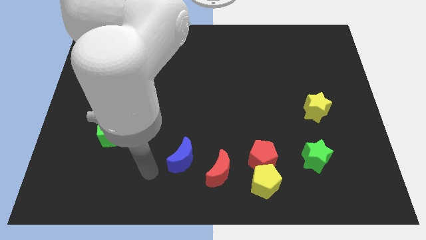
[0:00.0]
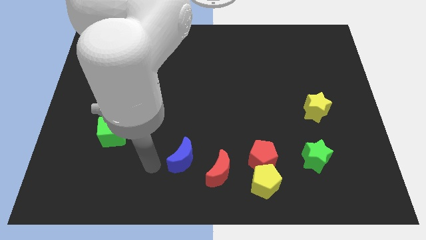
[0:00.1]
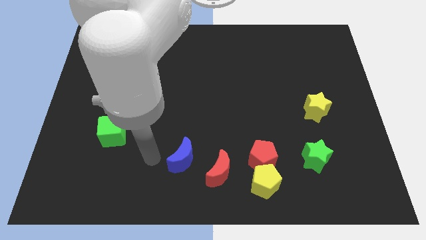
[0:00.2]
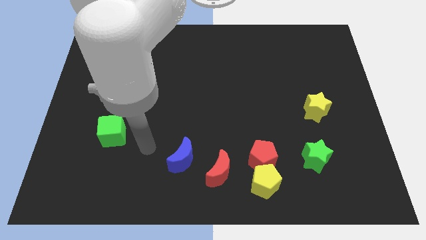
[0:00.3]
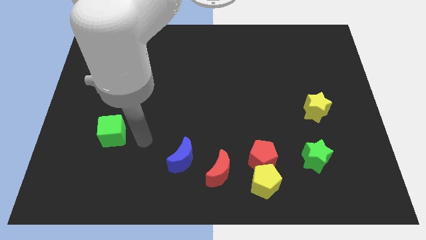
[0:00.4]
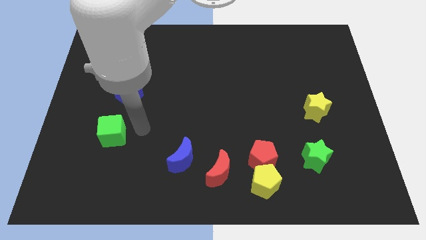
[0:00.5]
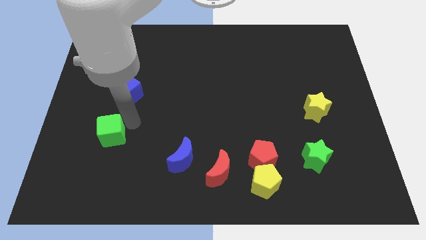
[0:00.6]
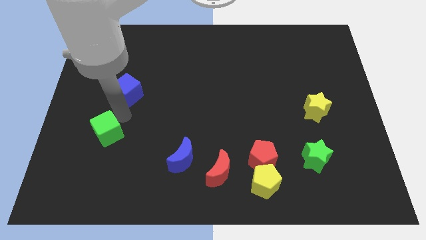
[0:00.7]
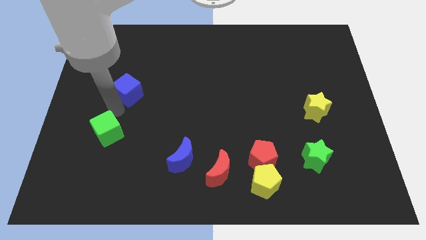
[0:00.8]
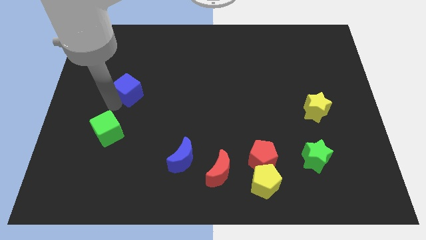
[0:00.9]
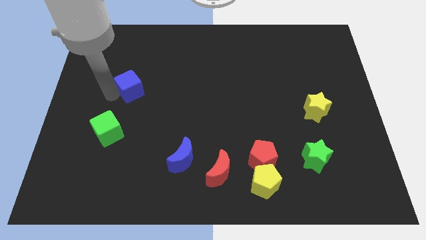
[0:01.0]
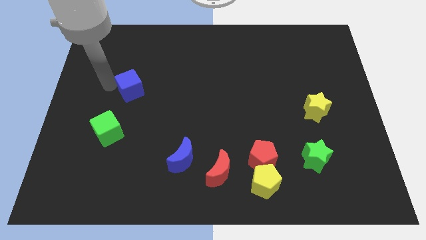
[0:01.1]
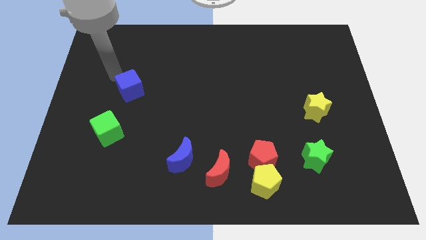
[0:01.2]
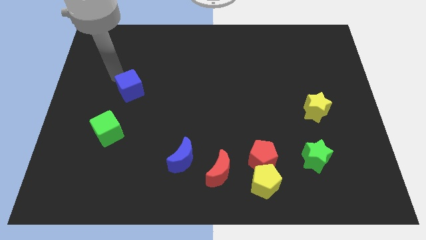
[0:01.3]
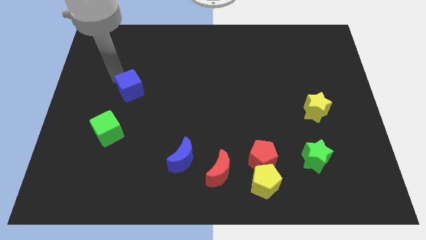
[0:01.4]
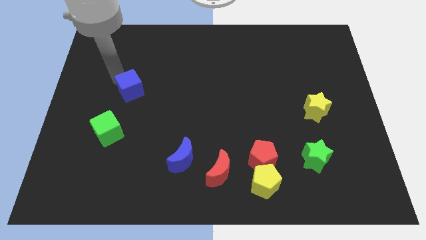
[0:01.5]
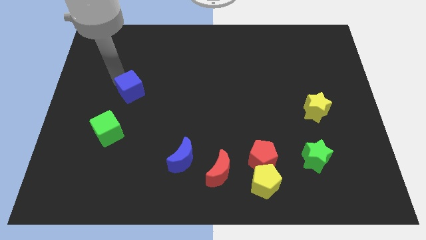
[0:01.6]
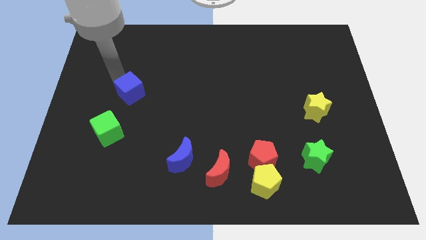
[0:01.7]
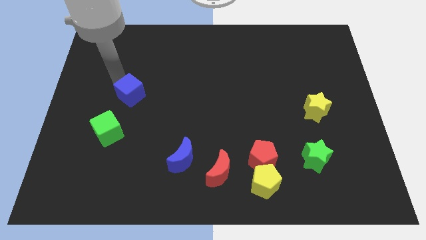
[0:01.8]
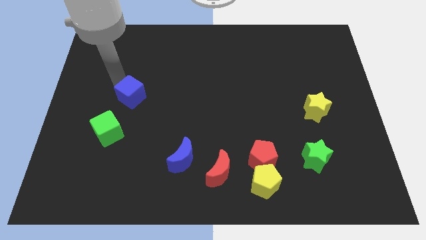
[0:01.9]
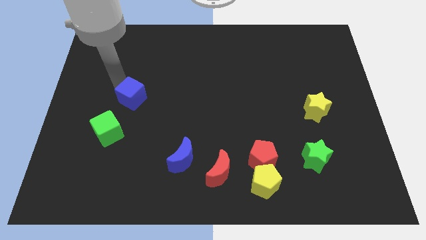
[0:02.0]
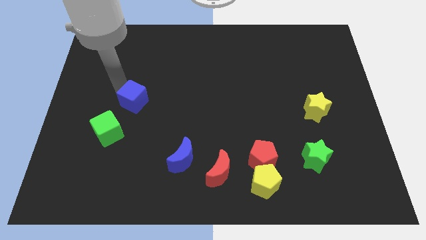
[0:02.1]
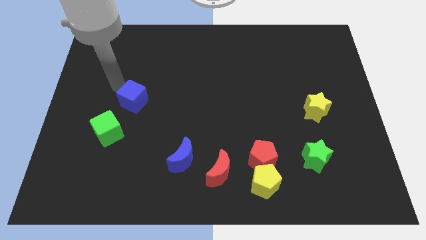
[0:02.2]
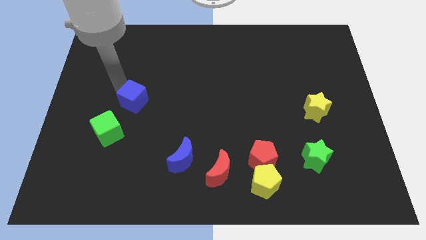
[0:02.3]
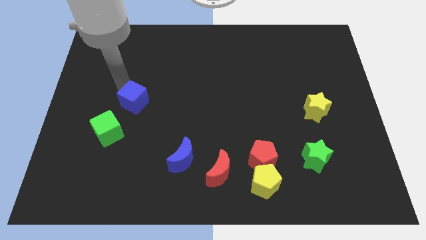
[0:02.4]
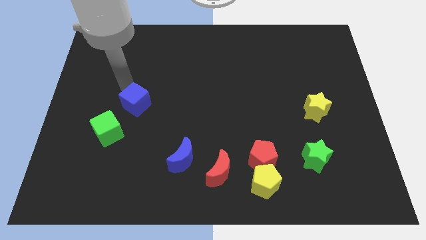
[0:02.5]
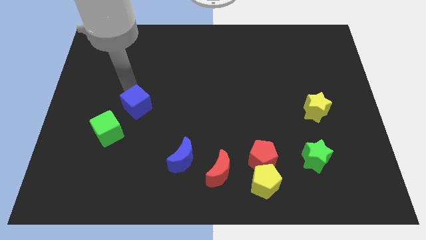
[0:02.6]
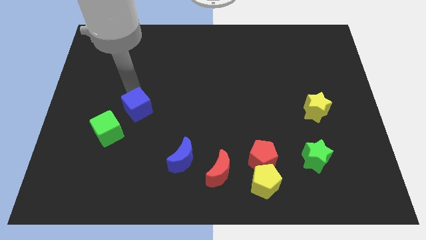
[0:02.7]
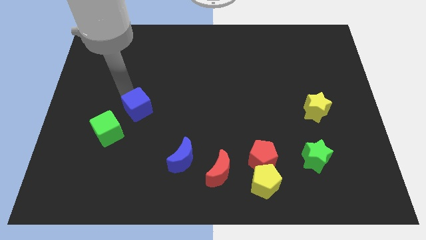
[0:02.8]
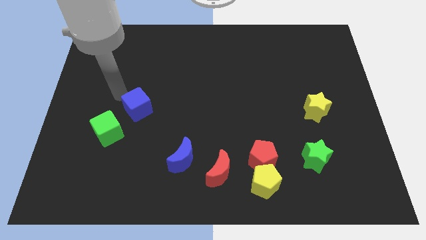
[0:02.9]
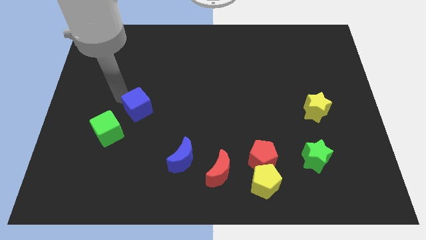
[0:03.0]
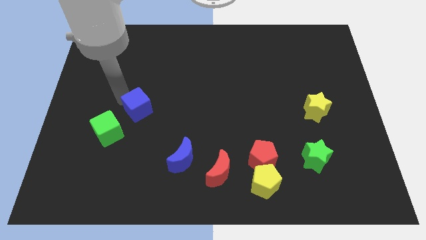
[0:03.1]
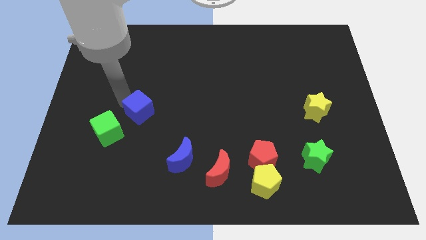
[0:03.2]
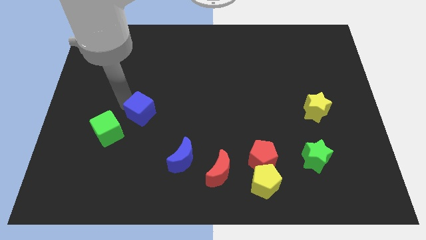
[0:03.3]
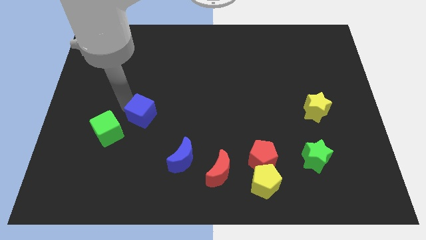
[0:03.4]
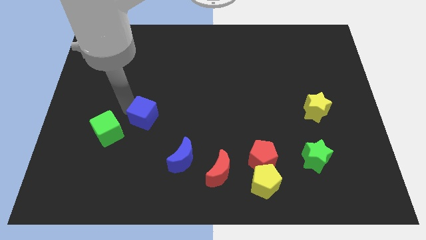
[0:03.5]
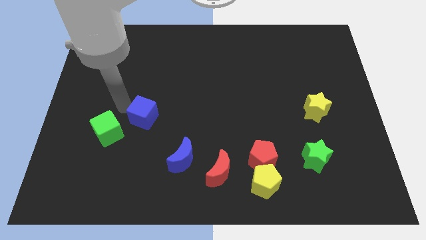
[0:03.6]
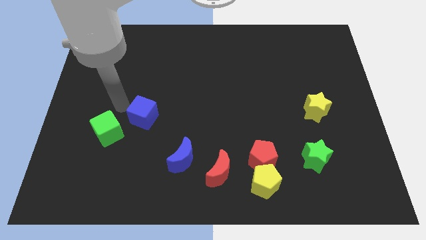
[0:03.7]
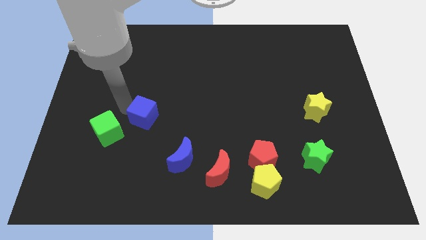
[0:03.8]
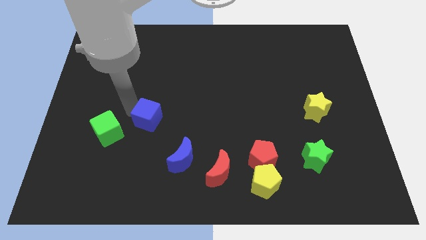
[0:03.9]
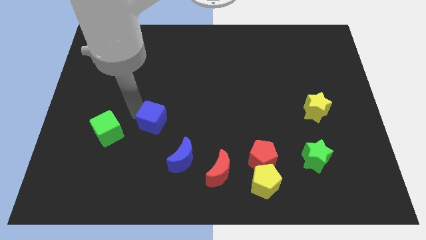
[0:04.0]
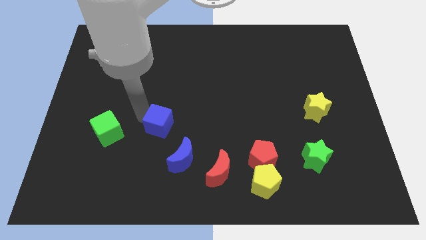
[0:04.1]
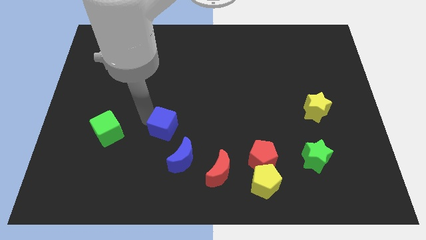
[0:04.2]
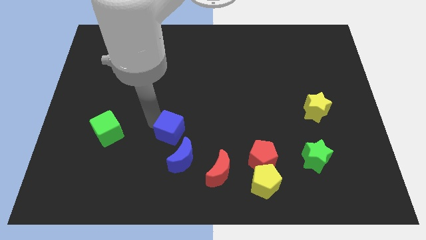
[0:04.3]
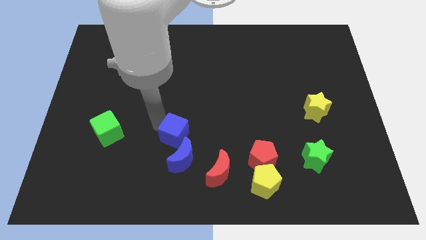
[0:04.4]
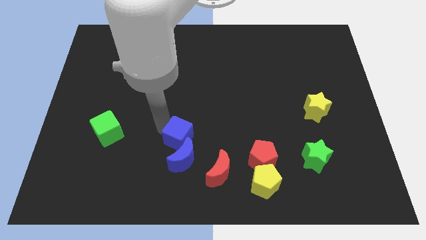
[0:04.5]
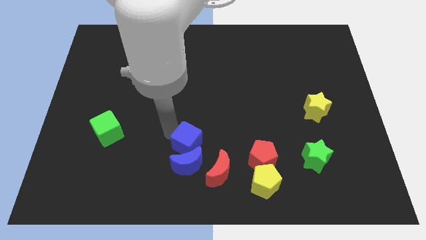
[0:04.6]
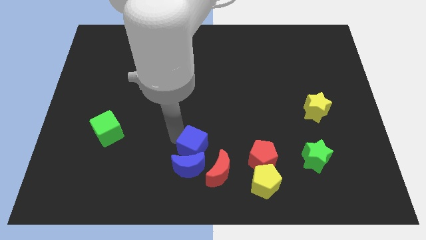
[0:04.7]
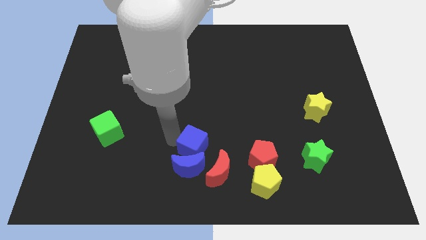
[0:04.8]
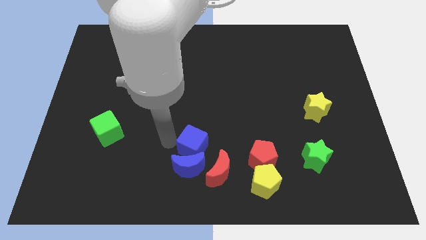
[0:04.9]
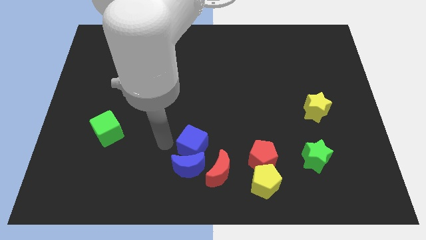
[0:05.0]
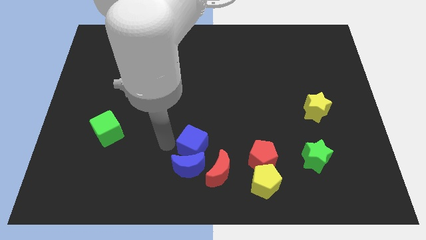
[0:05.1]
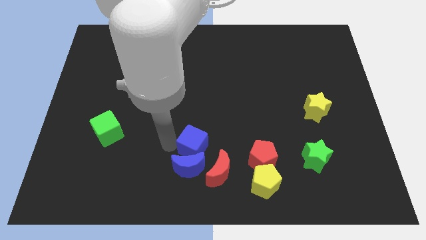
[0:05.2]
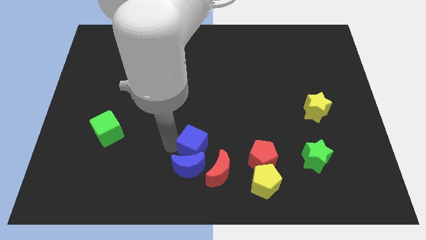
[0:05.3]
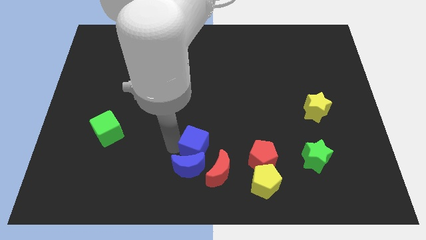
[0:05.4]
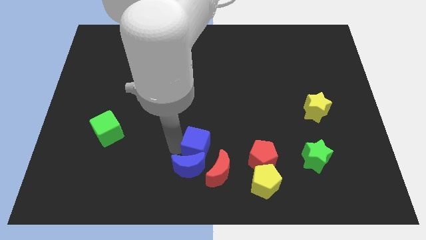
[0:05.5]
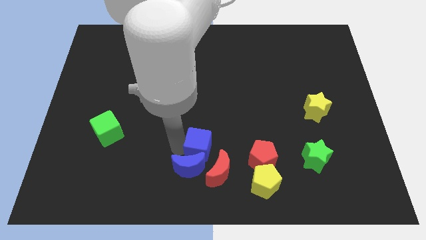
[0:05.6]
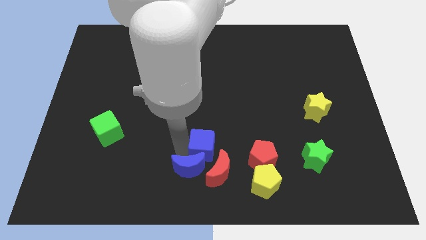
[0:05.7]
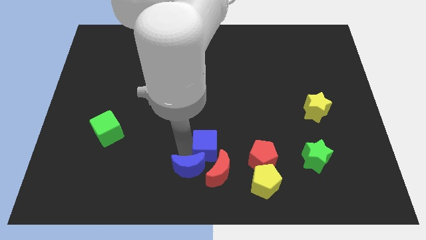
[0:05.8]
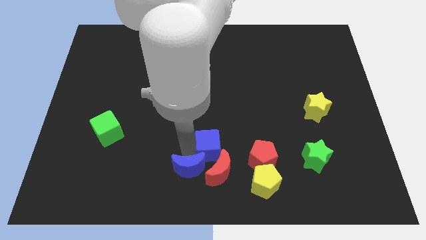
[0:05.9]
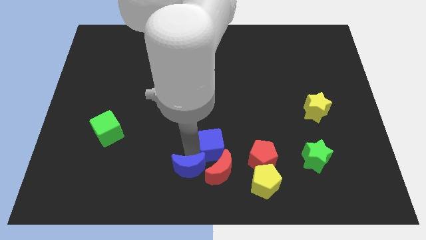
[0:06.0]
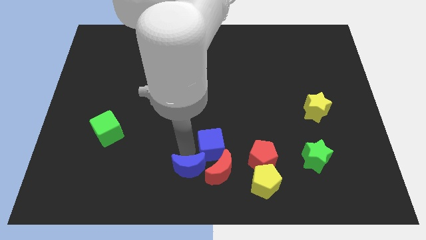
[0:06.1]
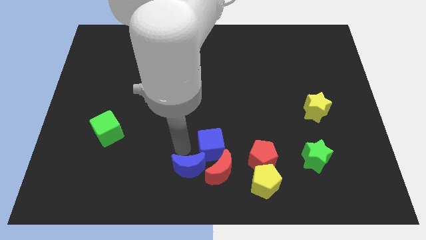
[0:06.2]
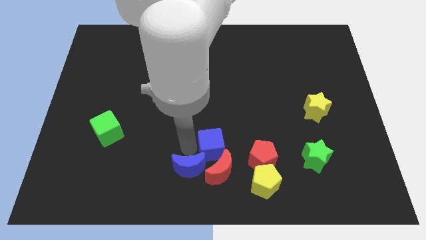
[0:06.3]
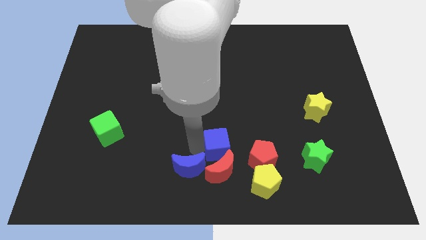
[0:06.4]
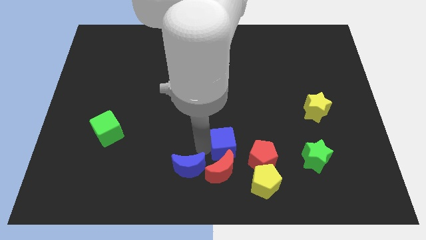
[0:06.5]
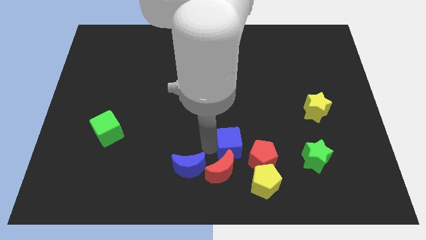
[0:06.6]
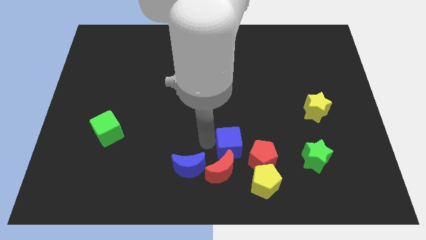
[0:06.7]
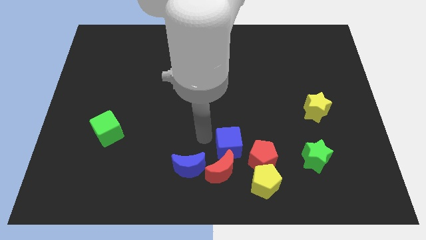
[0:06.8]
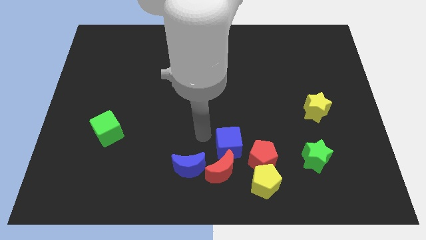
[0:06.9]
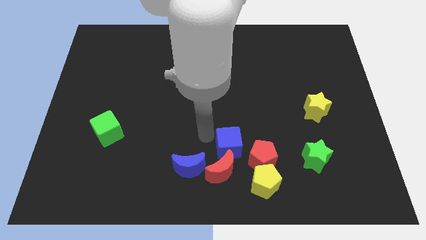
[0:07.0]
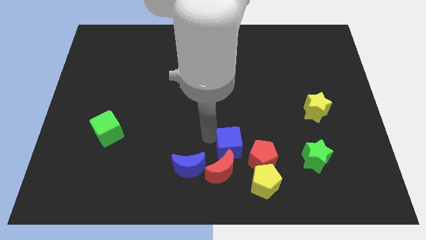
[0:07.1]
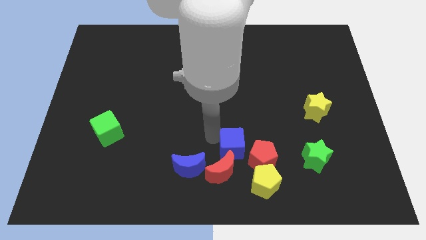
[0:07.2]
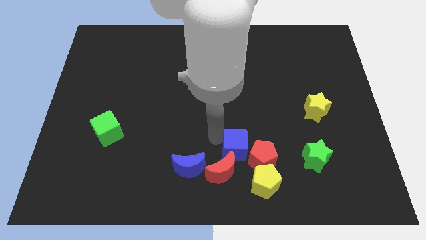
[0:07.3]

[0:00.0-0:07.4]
put the blue cube close to the red pentagon
